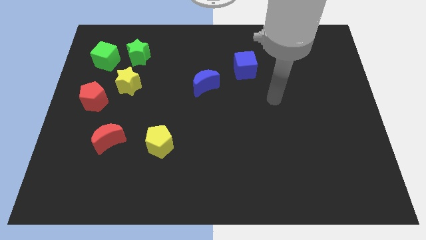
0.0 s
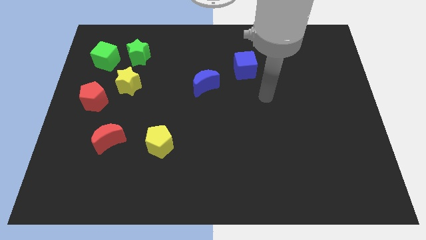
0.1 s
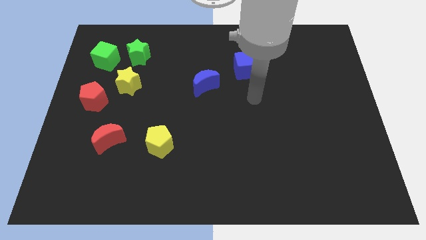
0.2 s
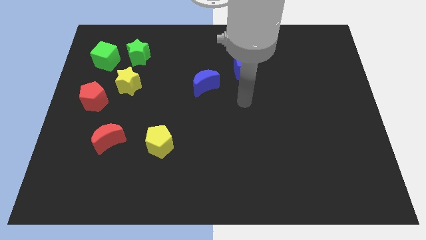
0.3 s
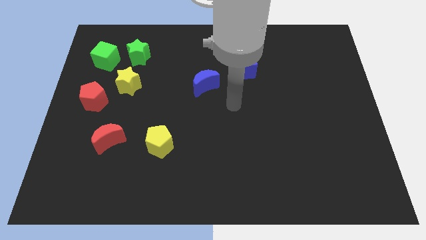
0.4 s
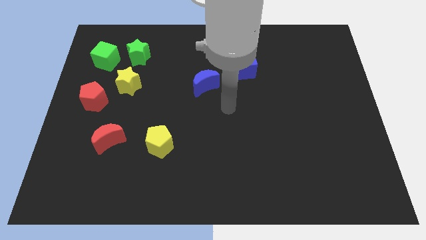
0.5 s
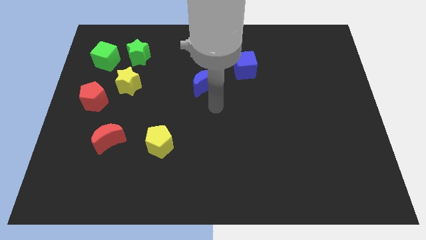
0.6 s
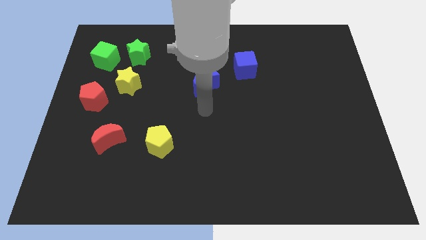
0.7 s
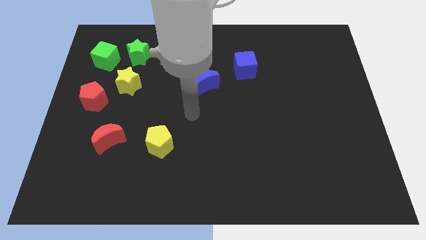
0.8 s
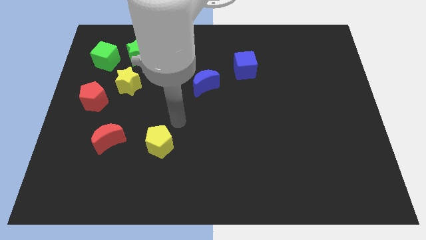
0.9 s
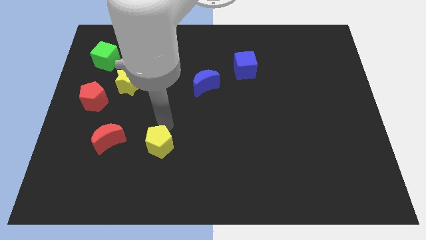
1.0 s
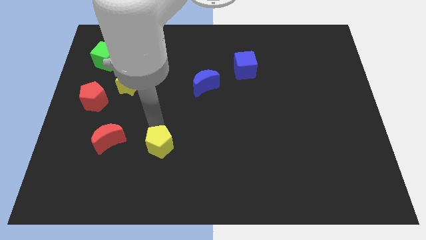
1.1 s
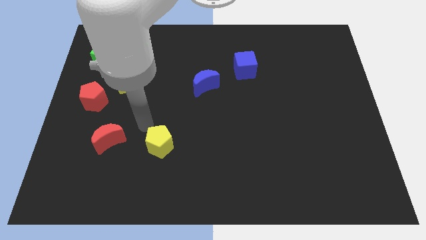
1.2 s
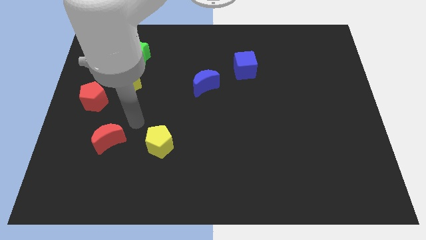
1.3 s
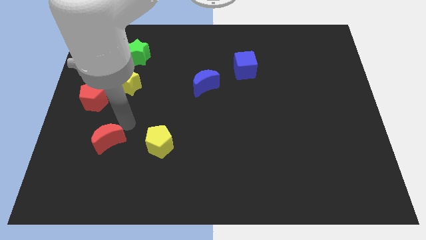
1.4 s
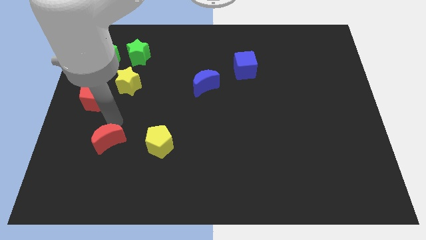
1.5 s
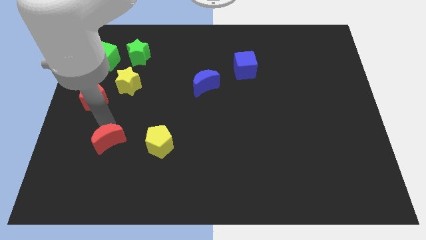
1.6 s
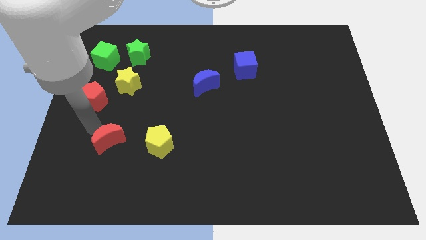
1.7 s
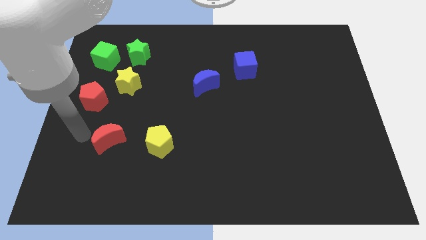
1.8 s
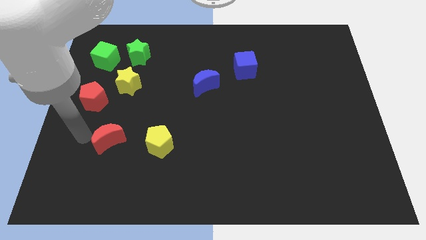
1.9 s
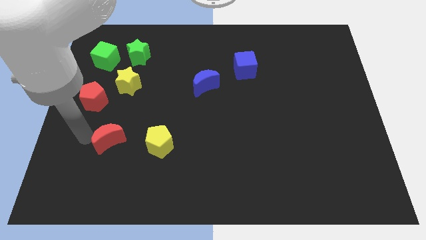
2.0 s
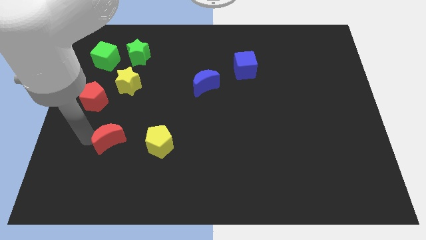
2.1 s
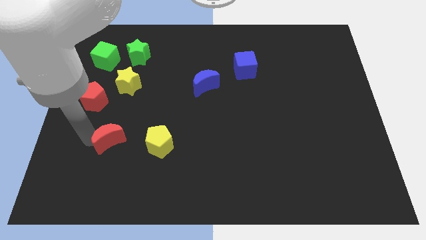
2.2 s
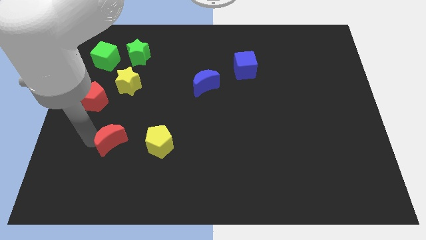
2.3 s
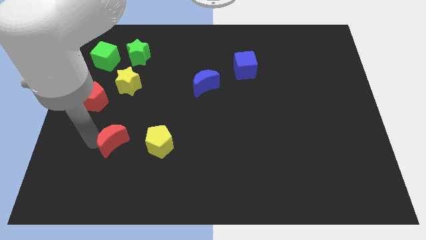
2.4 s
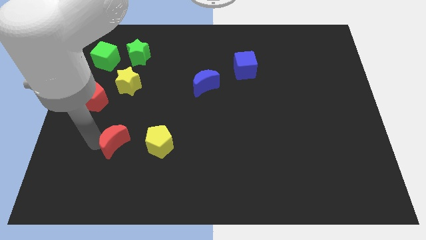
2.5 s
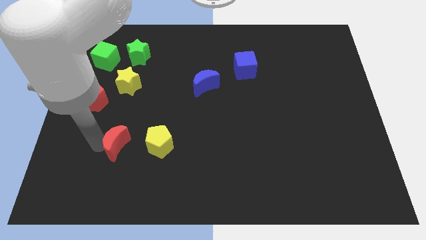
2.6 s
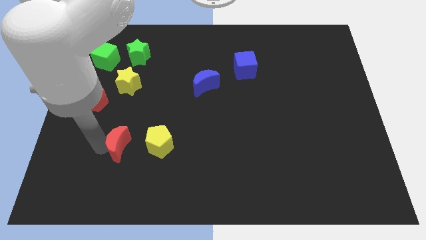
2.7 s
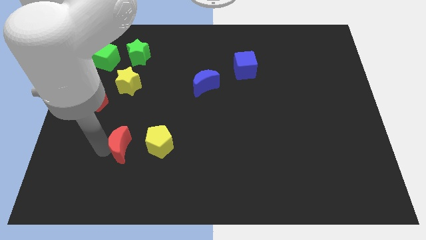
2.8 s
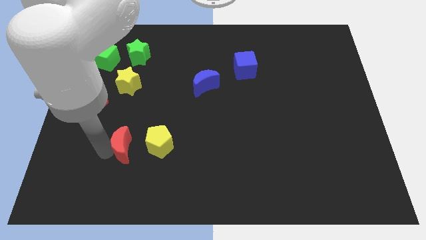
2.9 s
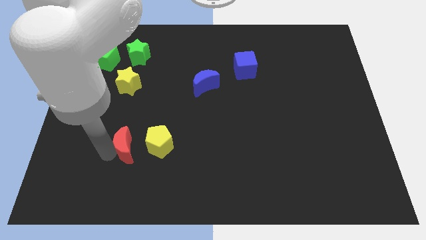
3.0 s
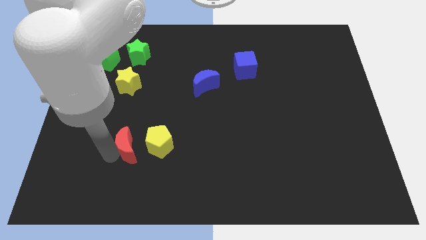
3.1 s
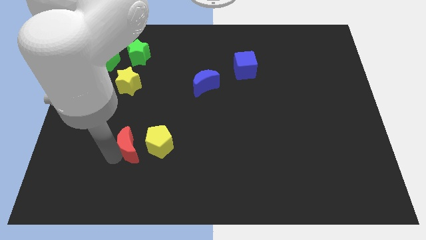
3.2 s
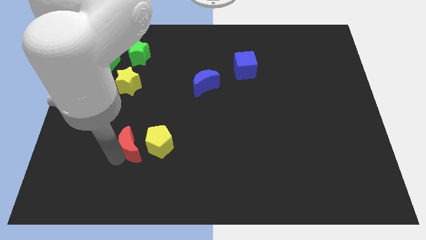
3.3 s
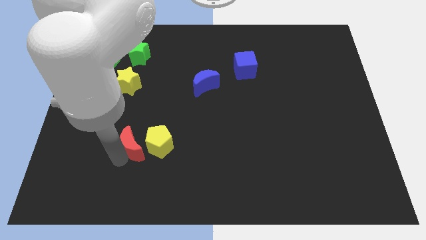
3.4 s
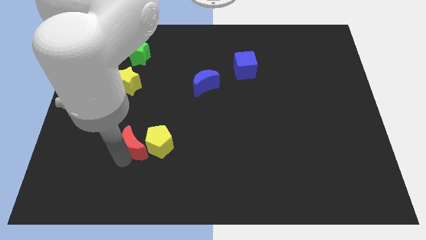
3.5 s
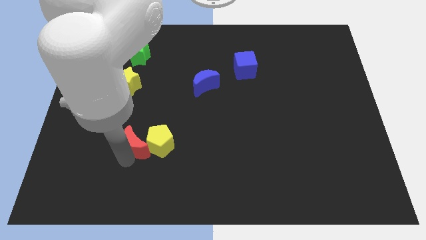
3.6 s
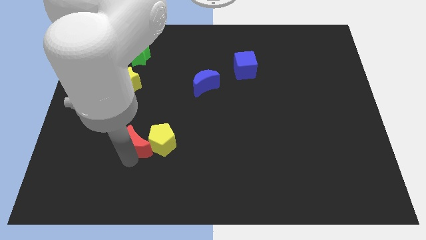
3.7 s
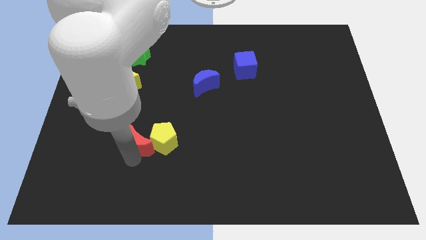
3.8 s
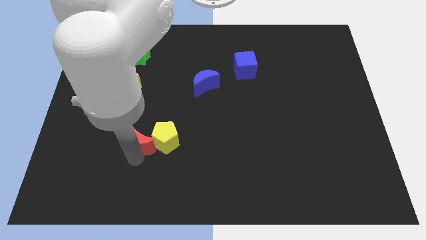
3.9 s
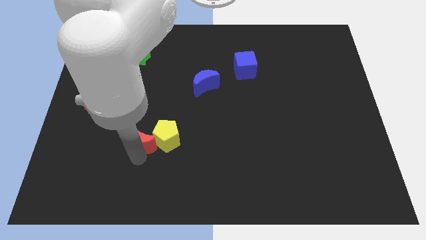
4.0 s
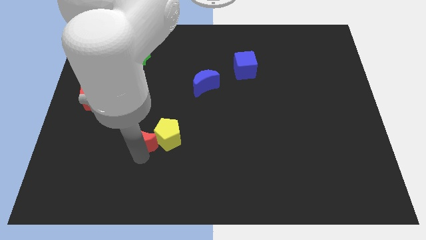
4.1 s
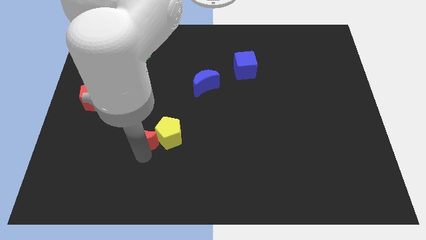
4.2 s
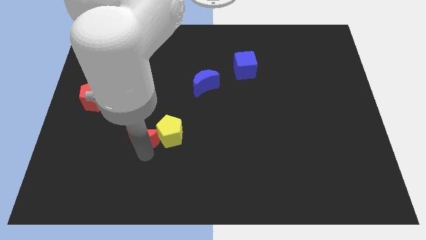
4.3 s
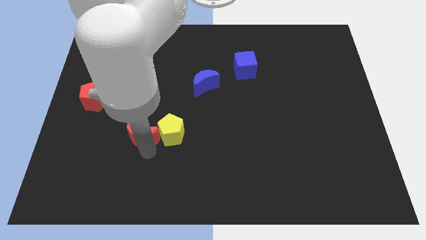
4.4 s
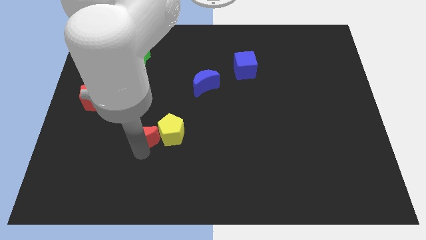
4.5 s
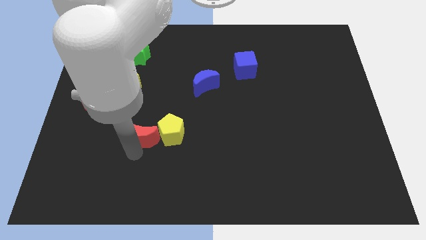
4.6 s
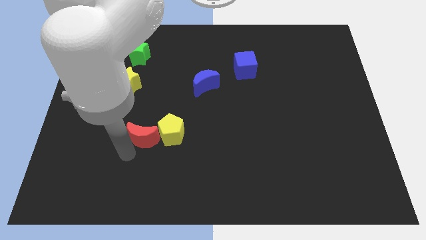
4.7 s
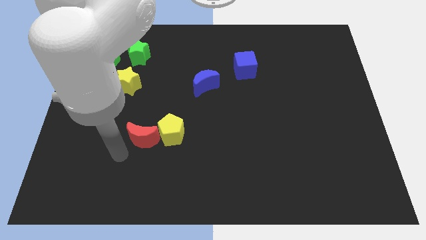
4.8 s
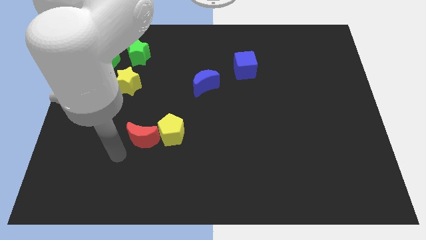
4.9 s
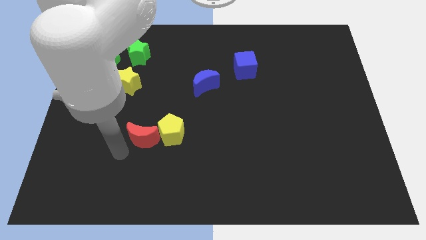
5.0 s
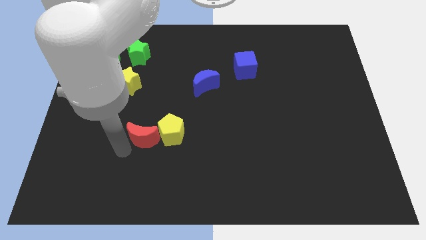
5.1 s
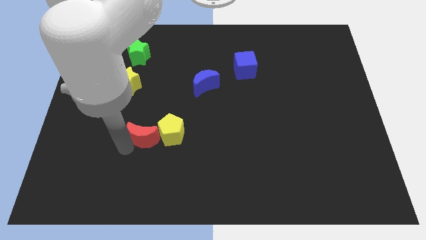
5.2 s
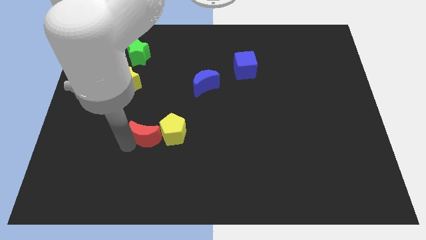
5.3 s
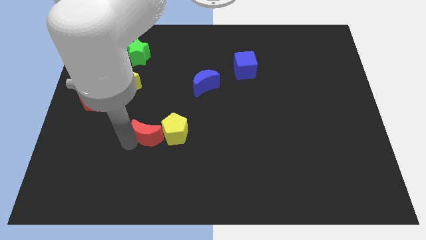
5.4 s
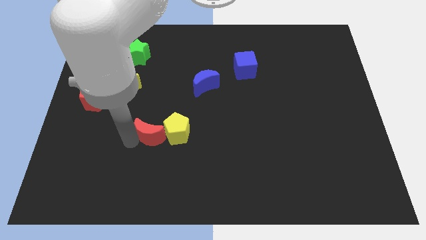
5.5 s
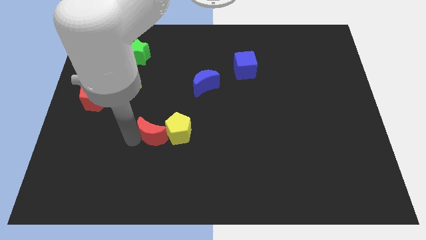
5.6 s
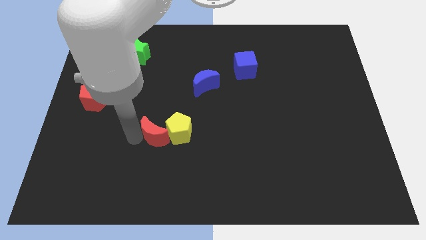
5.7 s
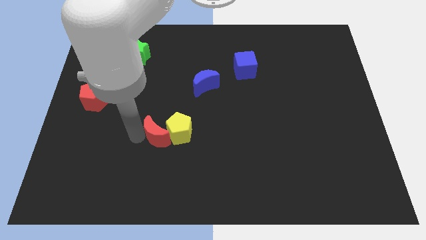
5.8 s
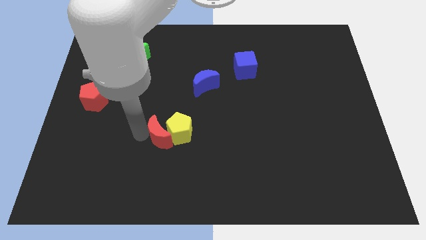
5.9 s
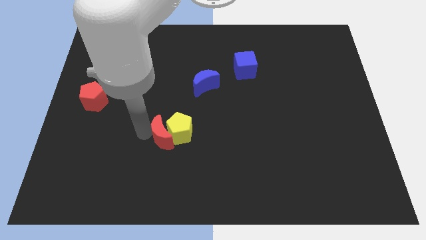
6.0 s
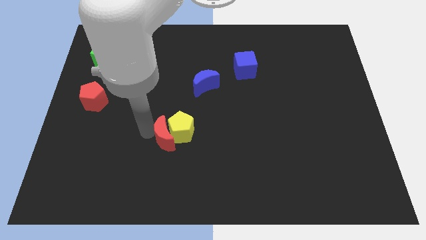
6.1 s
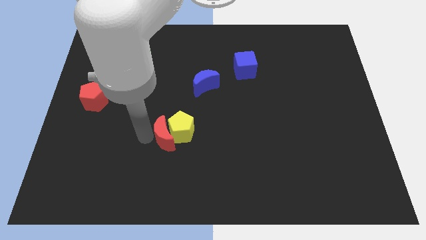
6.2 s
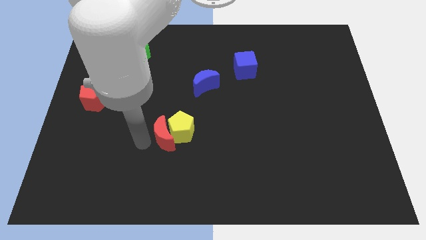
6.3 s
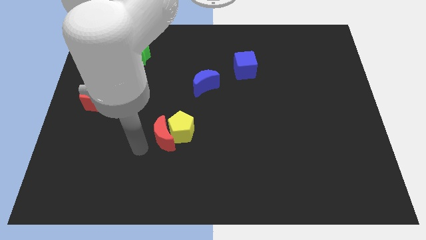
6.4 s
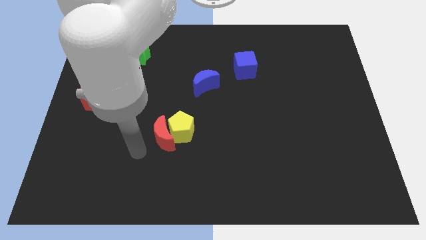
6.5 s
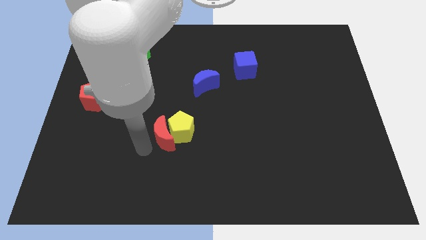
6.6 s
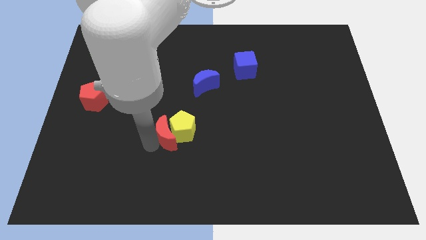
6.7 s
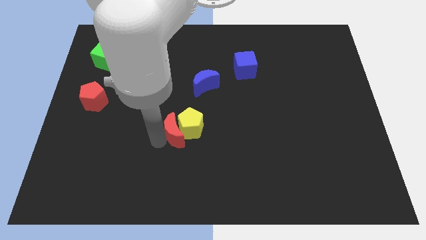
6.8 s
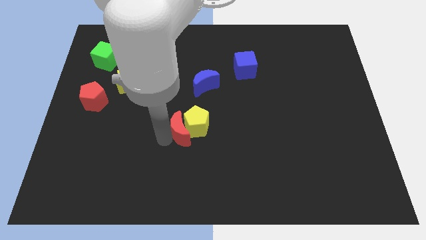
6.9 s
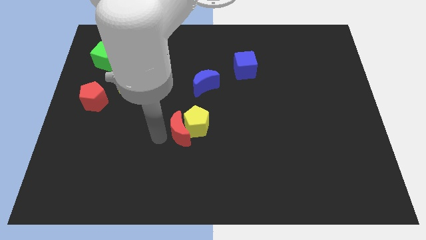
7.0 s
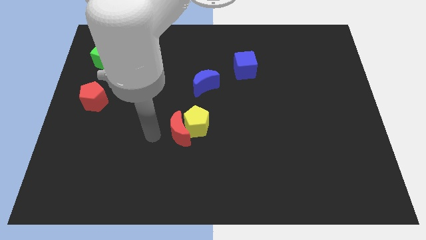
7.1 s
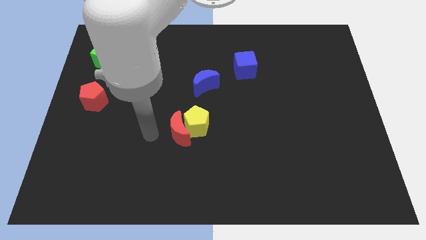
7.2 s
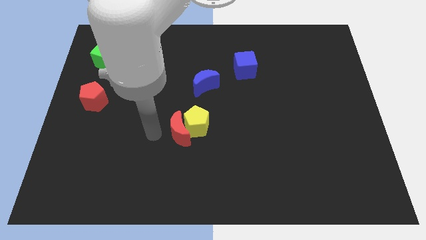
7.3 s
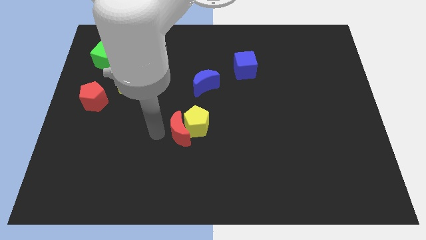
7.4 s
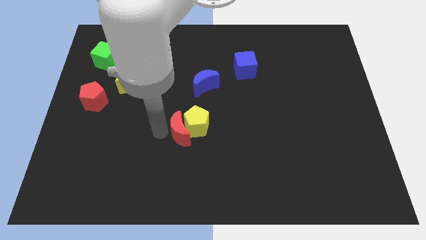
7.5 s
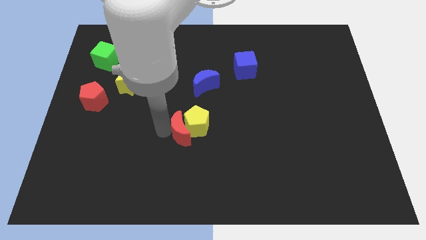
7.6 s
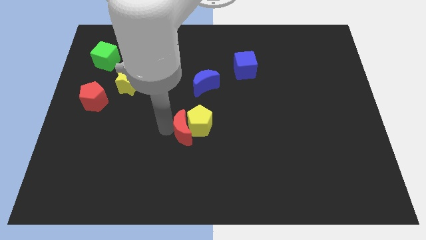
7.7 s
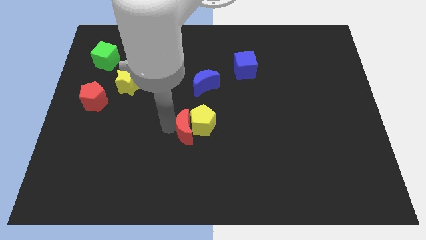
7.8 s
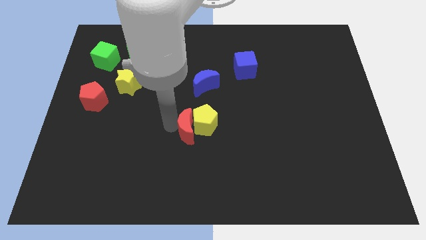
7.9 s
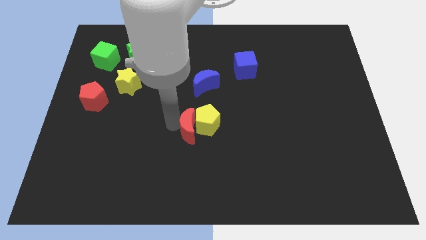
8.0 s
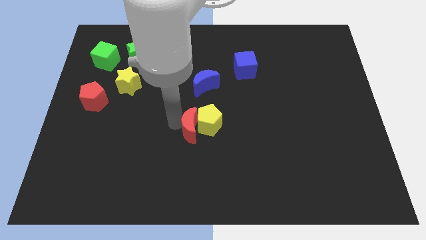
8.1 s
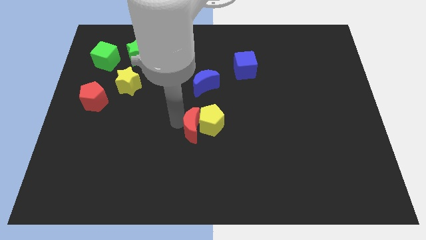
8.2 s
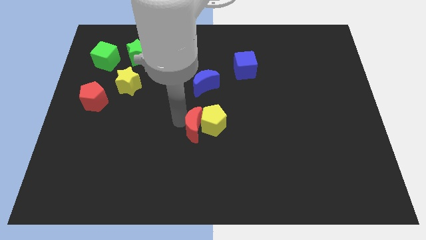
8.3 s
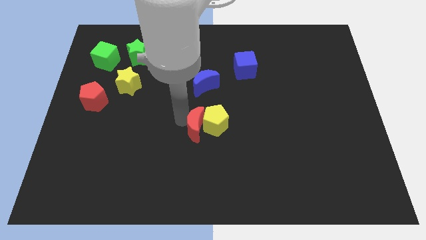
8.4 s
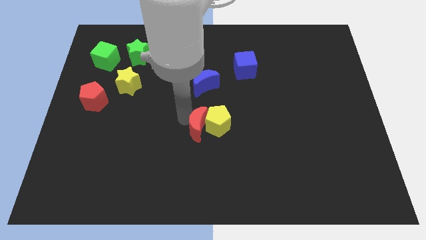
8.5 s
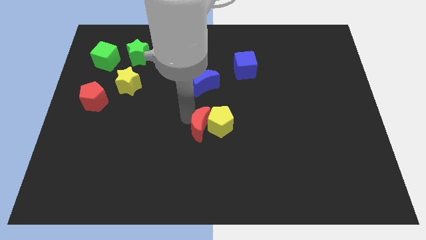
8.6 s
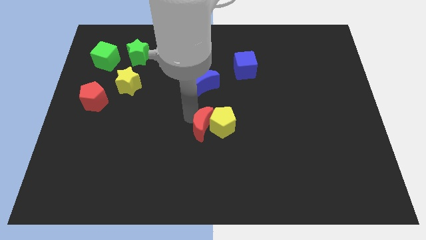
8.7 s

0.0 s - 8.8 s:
push the red moon right

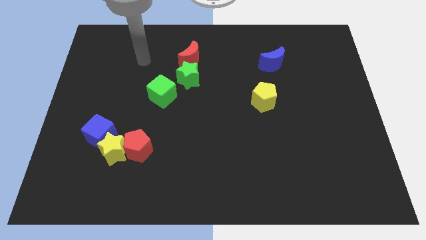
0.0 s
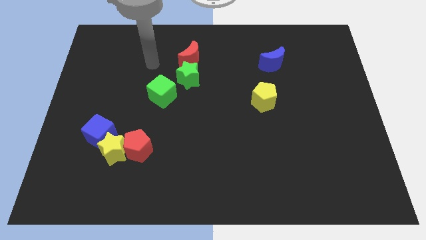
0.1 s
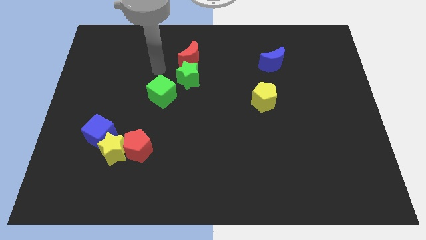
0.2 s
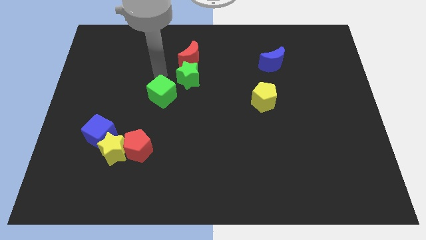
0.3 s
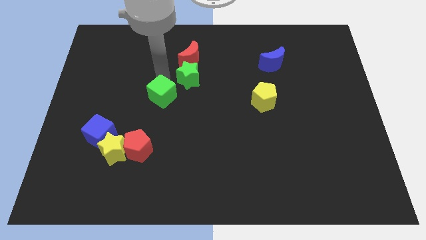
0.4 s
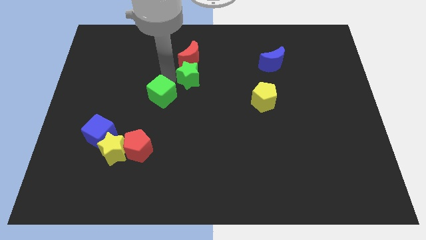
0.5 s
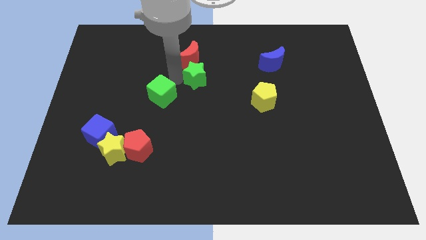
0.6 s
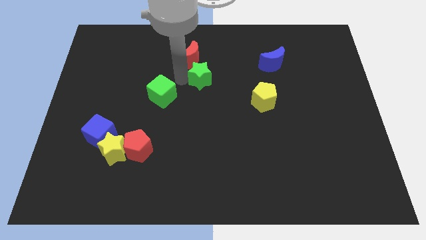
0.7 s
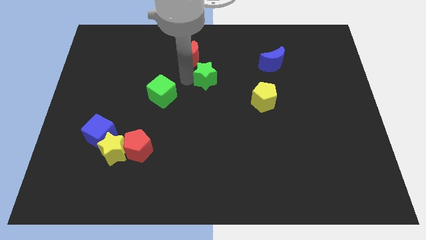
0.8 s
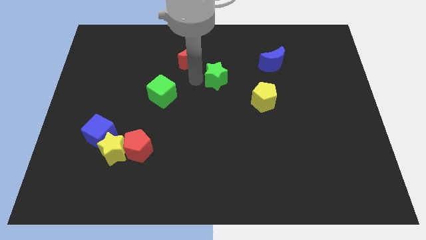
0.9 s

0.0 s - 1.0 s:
slide the green star right a bit
